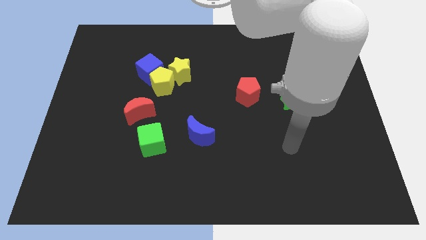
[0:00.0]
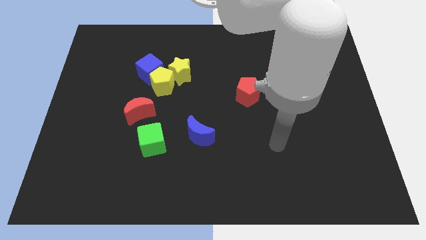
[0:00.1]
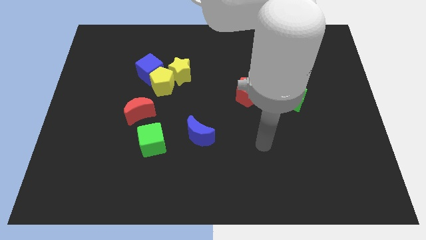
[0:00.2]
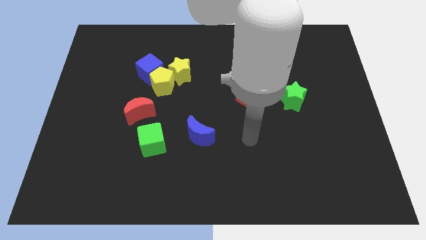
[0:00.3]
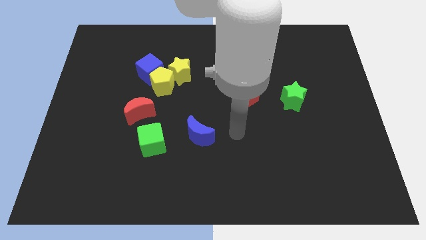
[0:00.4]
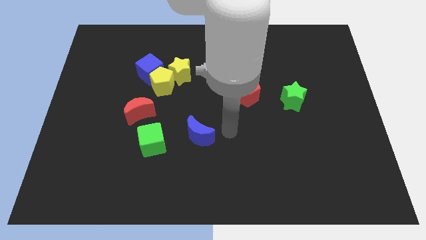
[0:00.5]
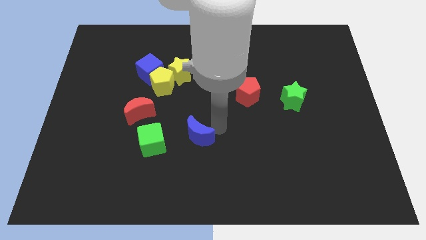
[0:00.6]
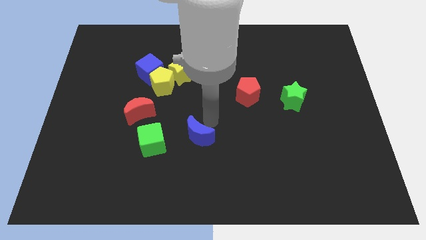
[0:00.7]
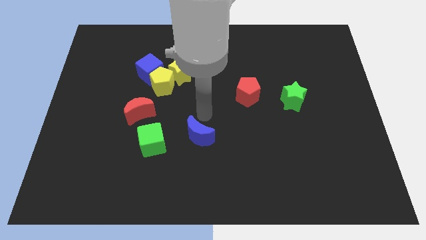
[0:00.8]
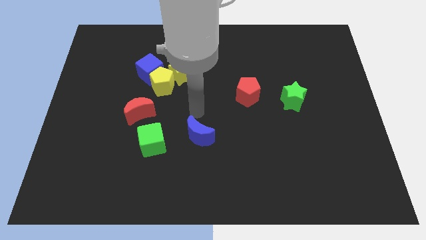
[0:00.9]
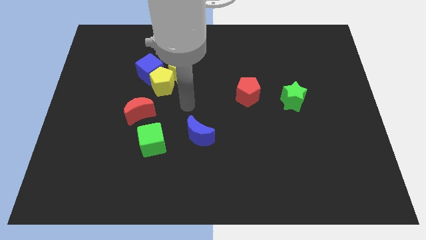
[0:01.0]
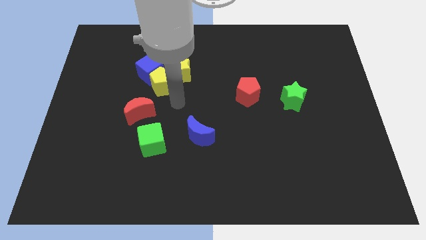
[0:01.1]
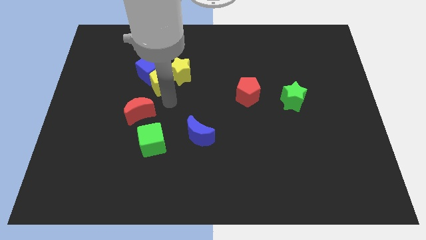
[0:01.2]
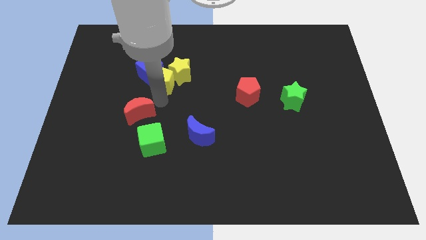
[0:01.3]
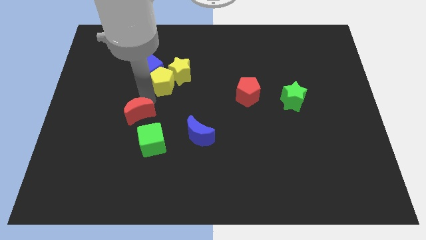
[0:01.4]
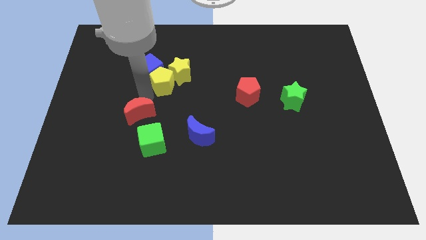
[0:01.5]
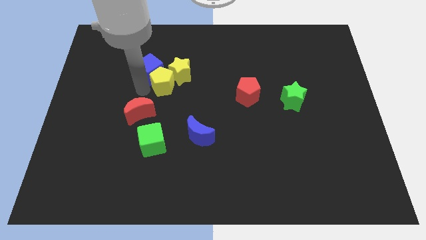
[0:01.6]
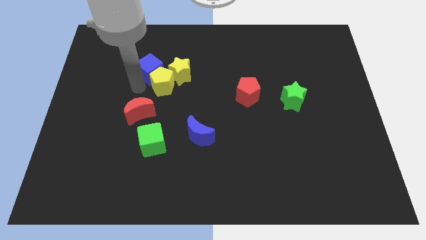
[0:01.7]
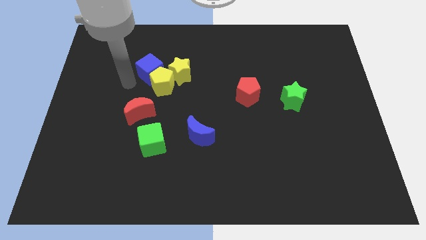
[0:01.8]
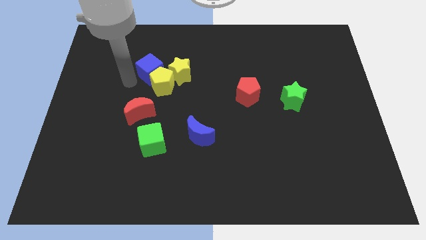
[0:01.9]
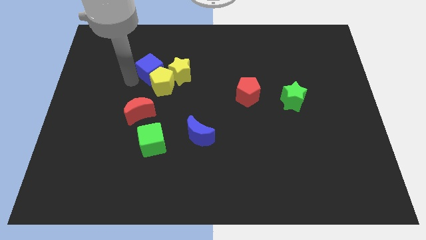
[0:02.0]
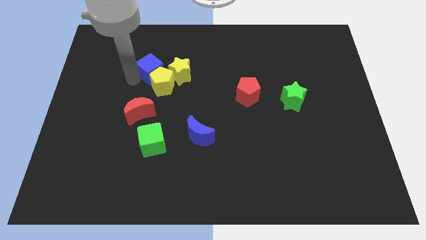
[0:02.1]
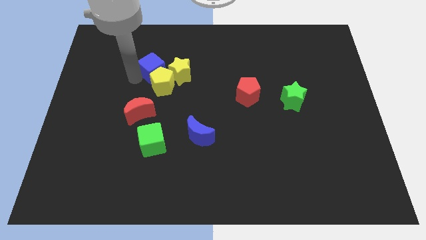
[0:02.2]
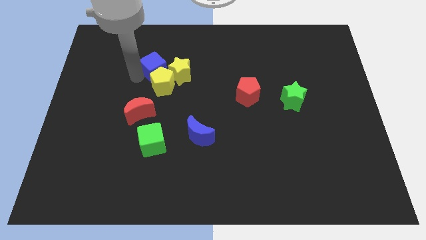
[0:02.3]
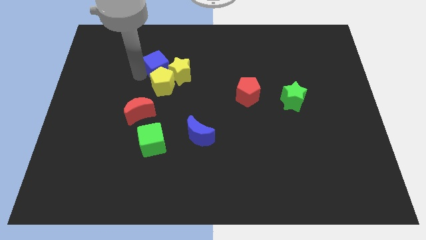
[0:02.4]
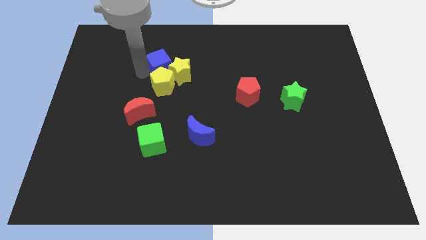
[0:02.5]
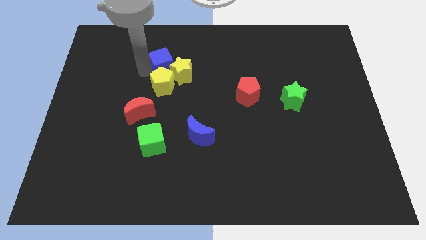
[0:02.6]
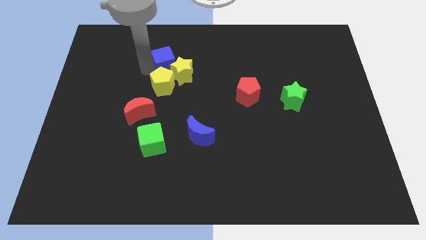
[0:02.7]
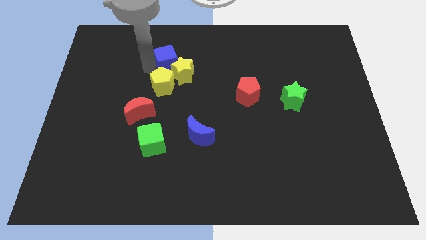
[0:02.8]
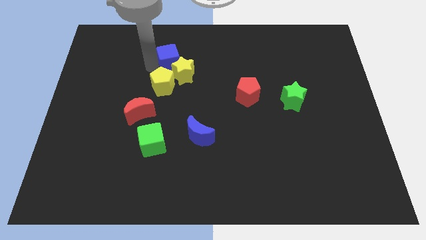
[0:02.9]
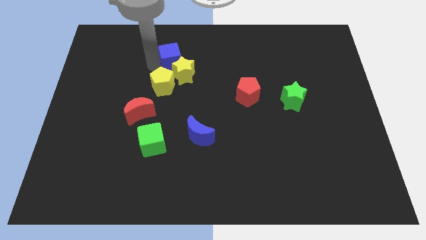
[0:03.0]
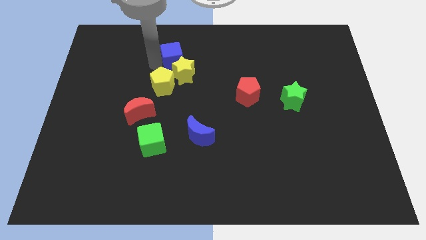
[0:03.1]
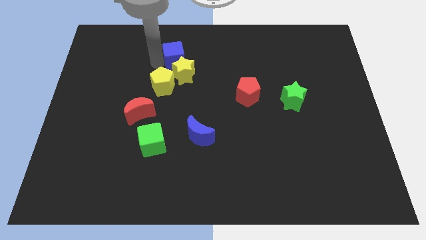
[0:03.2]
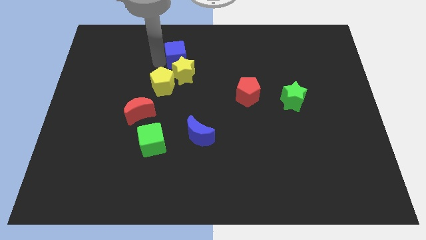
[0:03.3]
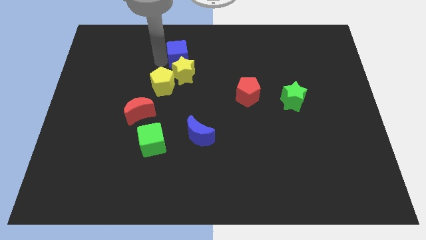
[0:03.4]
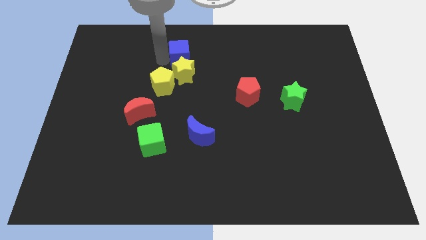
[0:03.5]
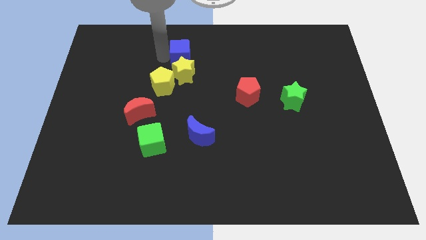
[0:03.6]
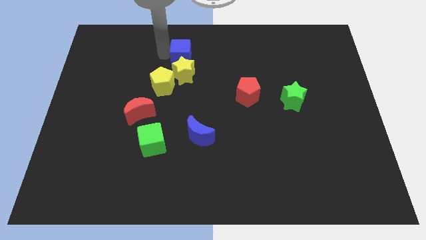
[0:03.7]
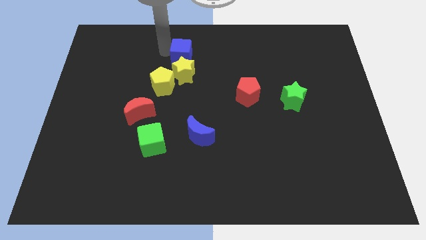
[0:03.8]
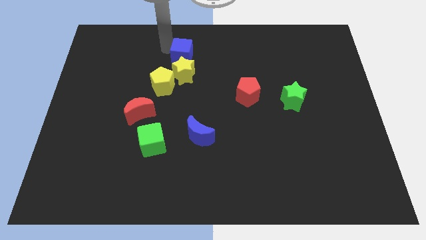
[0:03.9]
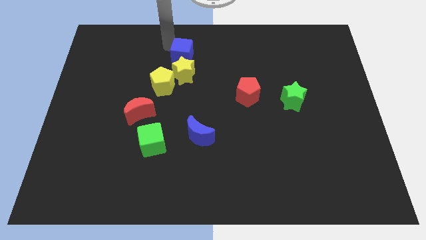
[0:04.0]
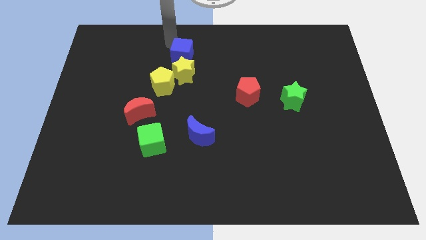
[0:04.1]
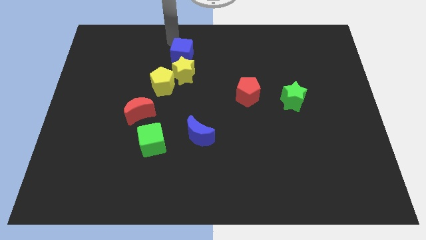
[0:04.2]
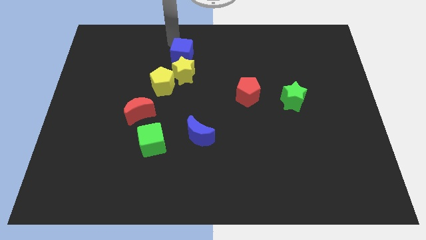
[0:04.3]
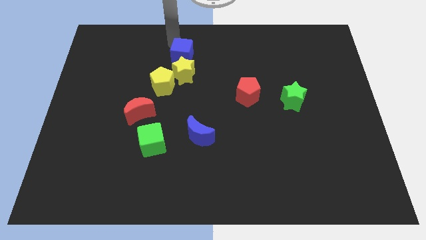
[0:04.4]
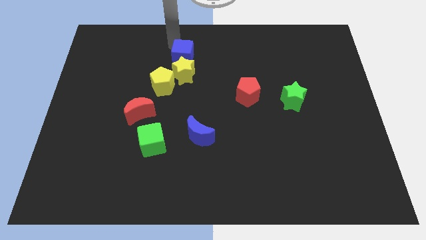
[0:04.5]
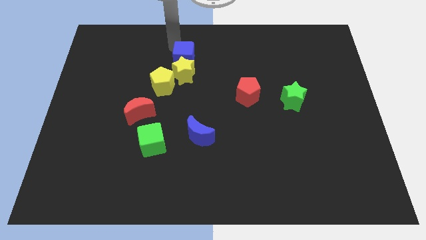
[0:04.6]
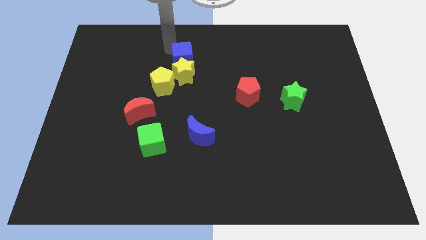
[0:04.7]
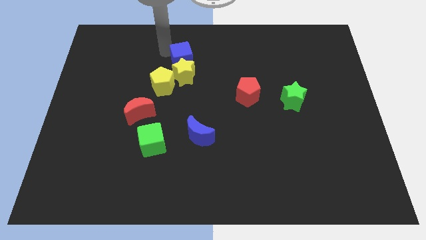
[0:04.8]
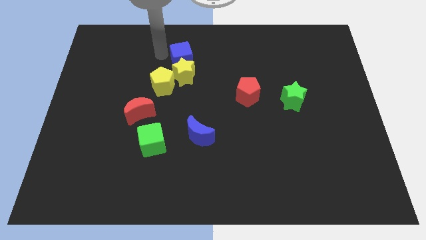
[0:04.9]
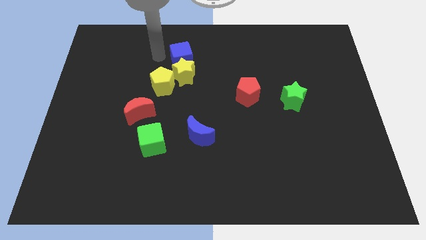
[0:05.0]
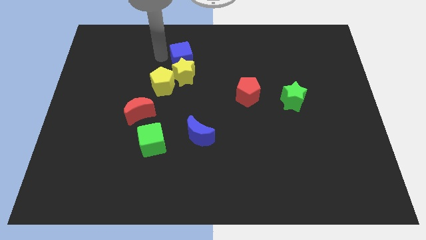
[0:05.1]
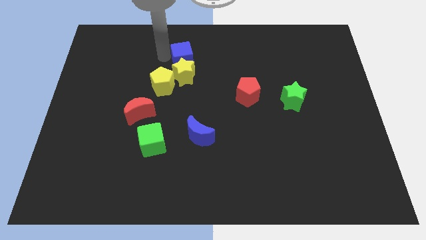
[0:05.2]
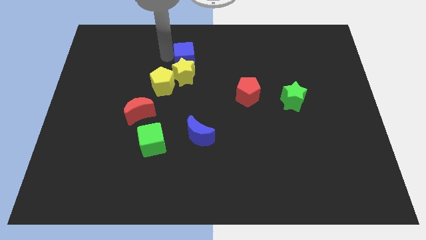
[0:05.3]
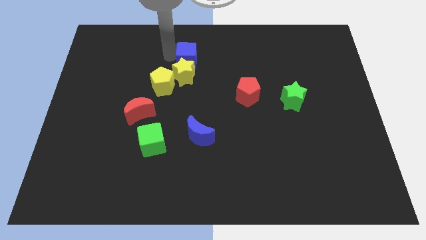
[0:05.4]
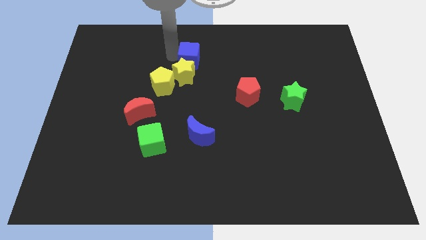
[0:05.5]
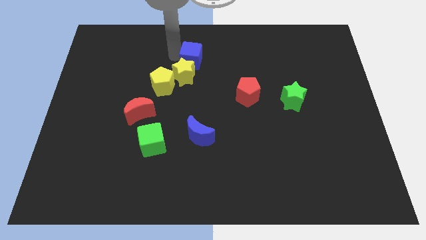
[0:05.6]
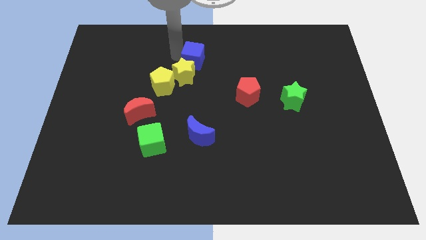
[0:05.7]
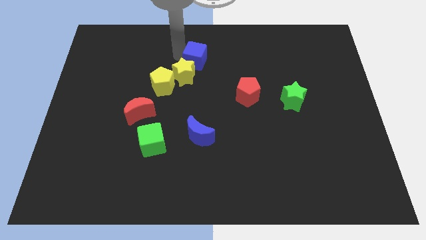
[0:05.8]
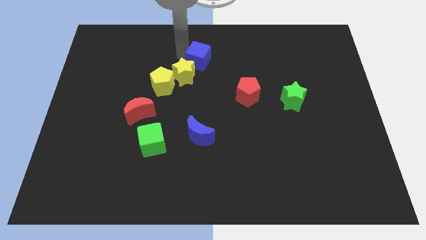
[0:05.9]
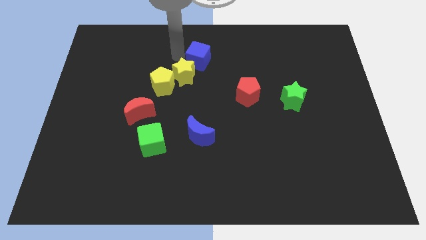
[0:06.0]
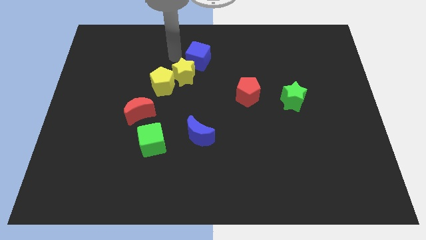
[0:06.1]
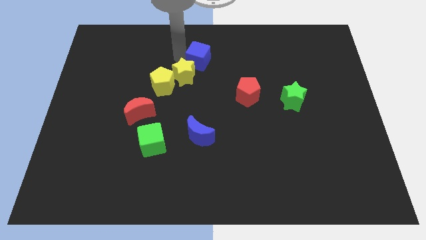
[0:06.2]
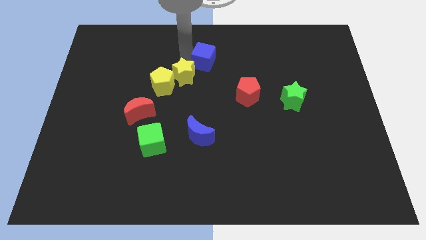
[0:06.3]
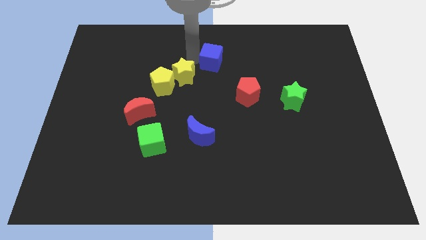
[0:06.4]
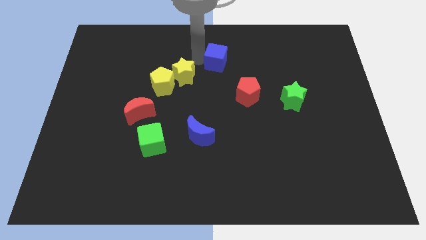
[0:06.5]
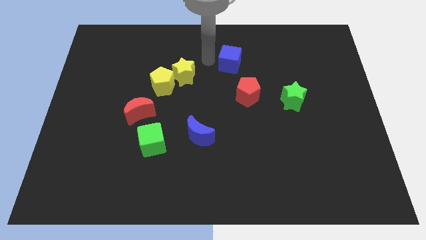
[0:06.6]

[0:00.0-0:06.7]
move the blue cube right

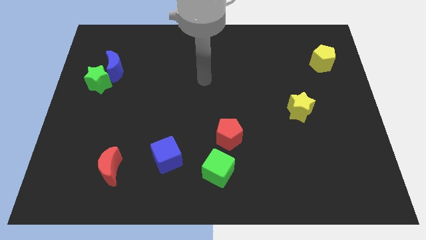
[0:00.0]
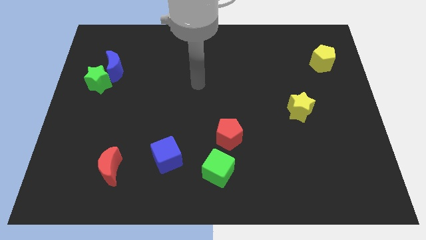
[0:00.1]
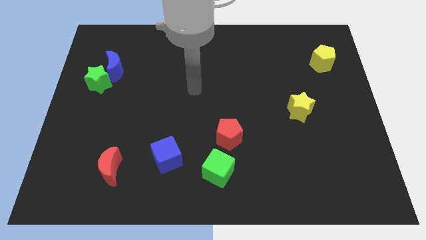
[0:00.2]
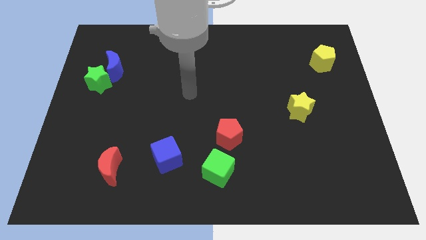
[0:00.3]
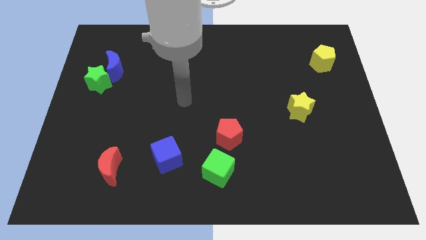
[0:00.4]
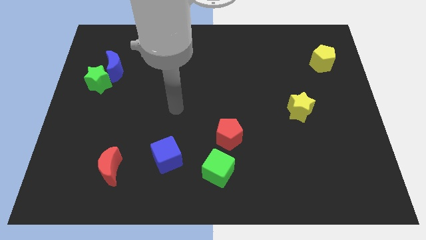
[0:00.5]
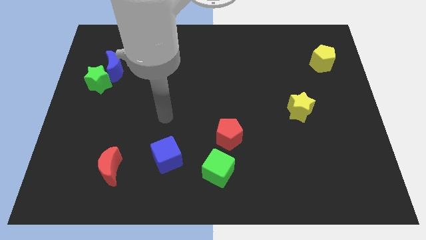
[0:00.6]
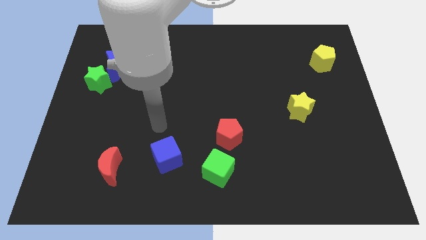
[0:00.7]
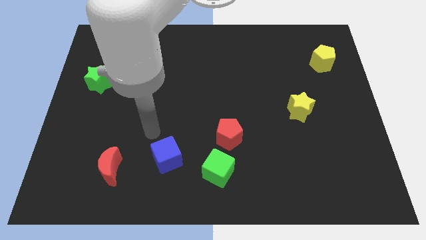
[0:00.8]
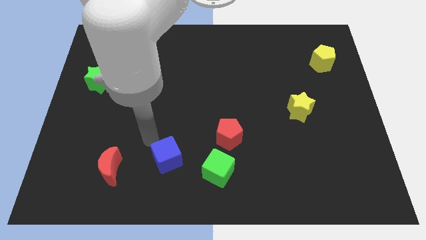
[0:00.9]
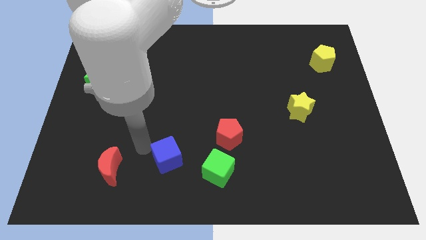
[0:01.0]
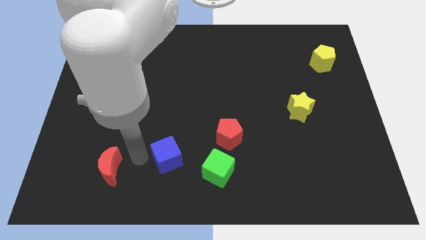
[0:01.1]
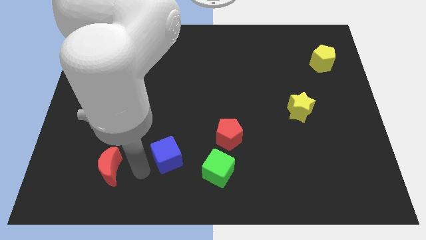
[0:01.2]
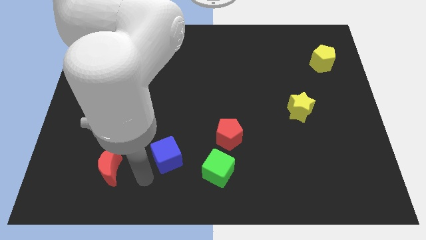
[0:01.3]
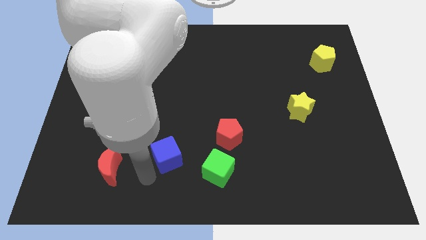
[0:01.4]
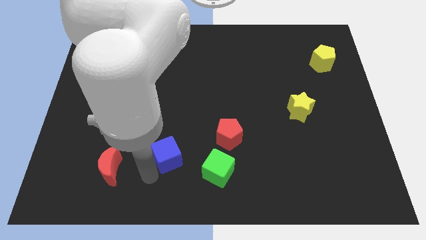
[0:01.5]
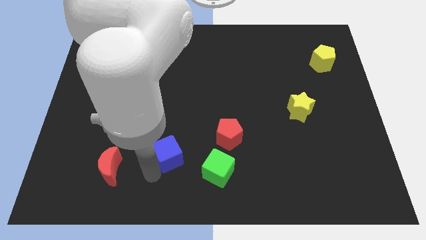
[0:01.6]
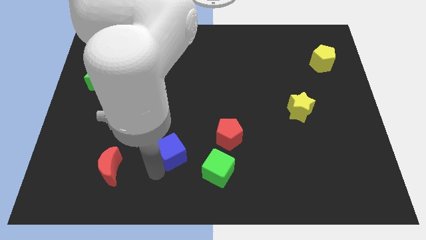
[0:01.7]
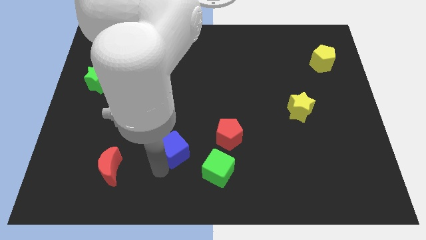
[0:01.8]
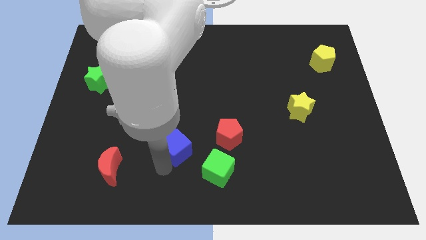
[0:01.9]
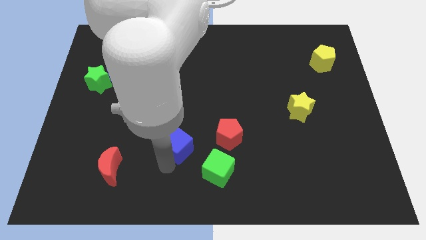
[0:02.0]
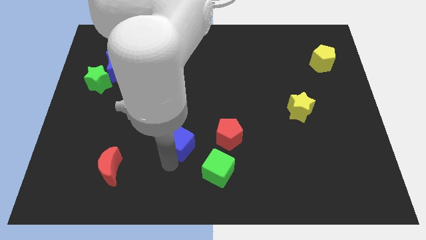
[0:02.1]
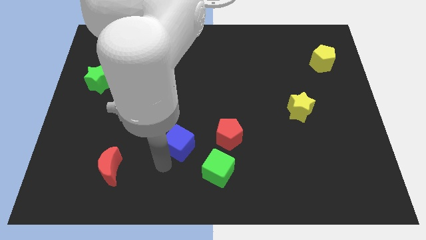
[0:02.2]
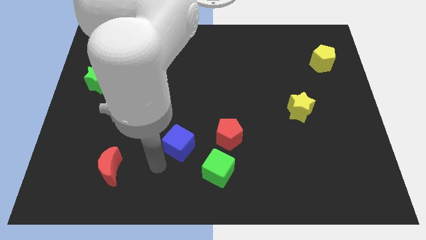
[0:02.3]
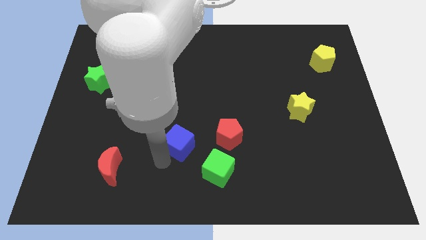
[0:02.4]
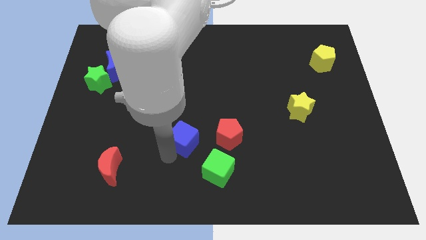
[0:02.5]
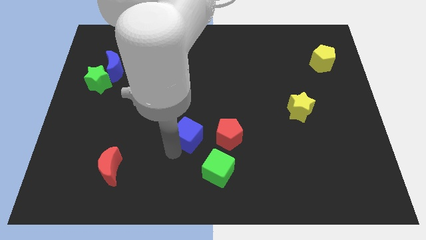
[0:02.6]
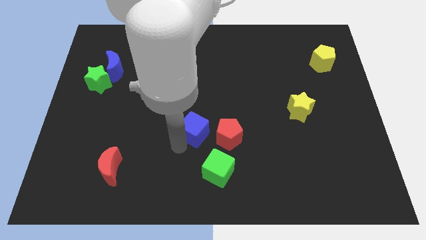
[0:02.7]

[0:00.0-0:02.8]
move the blue cube upwards and then to the right a little
